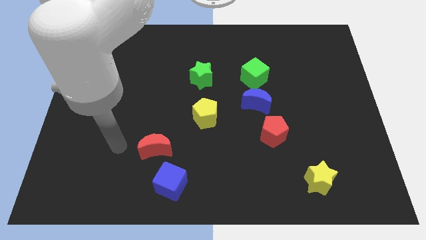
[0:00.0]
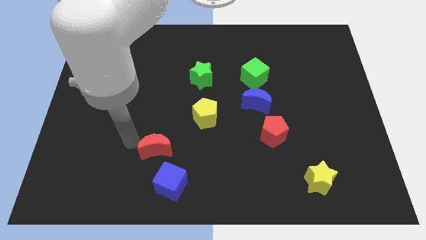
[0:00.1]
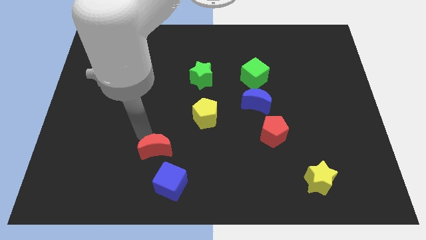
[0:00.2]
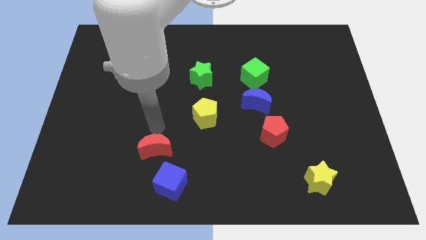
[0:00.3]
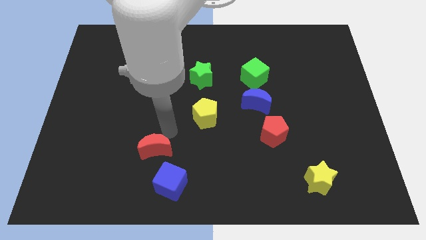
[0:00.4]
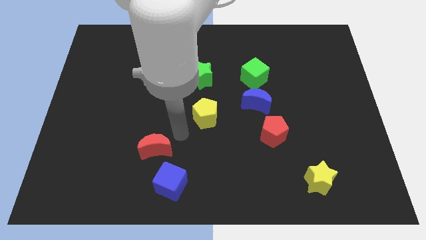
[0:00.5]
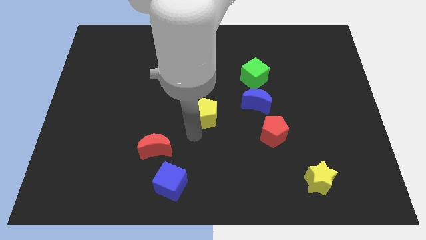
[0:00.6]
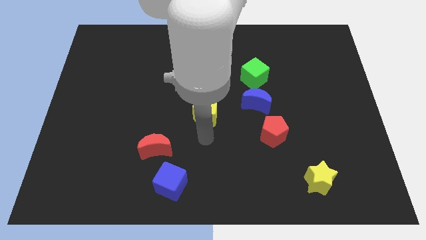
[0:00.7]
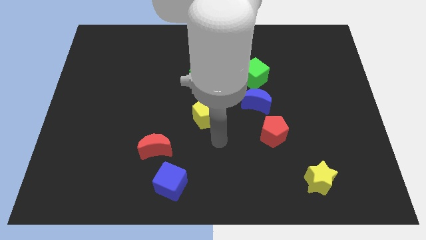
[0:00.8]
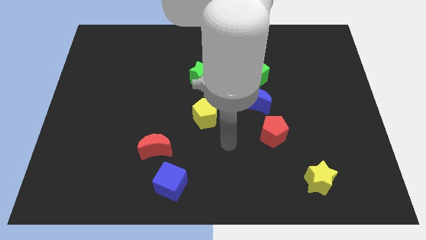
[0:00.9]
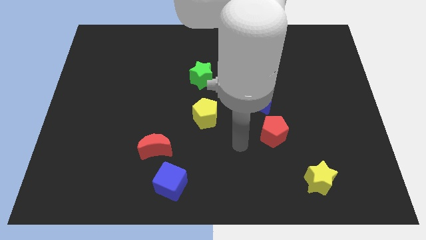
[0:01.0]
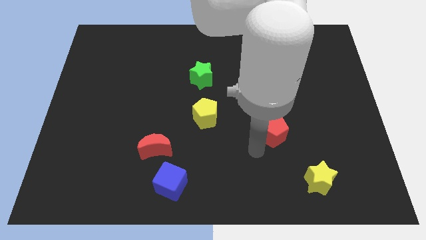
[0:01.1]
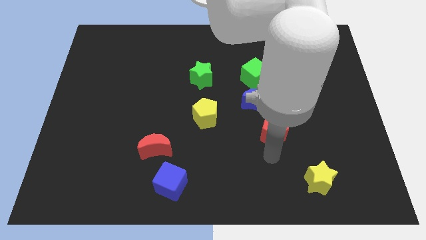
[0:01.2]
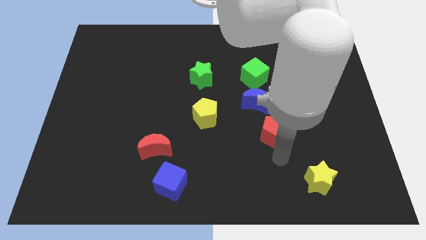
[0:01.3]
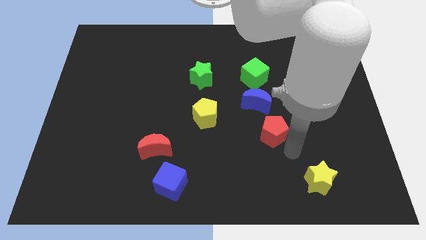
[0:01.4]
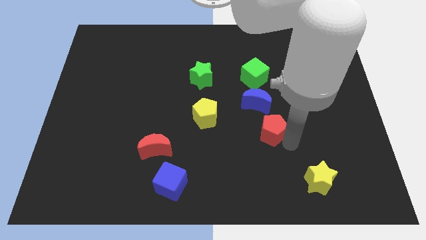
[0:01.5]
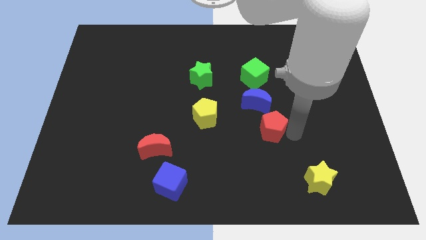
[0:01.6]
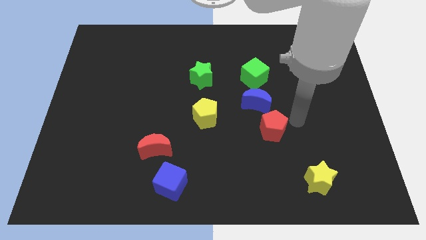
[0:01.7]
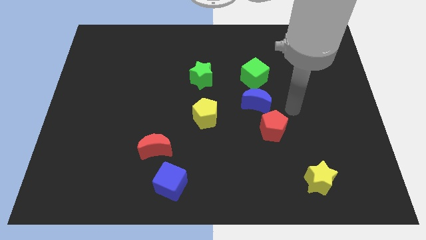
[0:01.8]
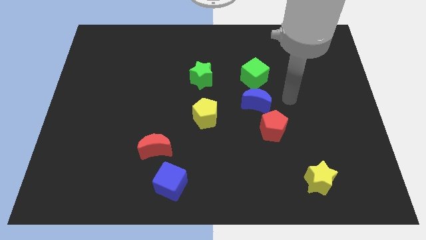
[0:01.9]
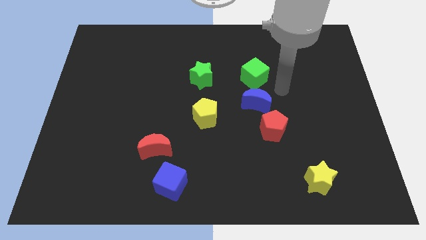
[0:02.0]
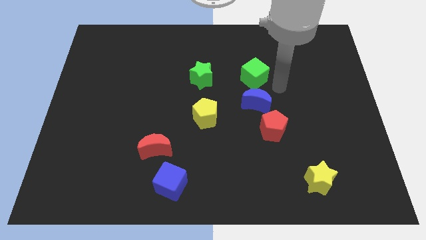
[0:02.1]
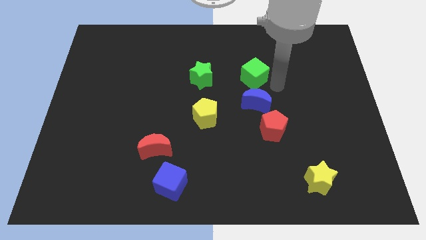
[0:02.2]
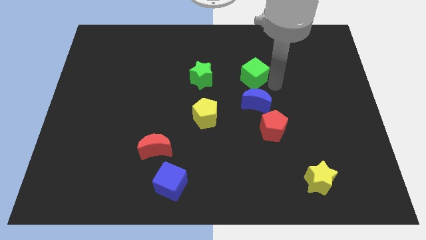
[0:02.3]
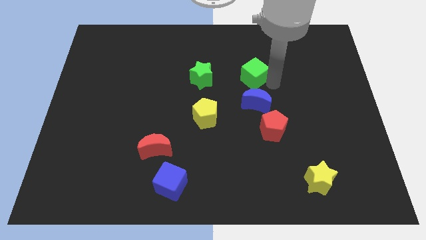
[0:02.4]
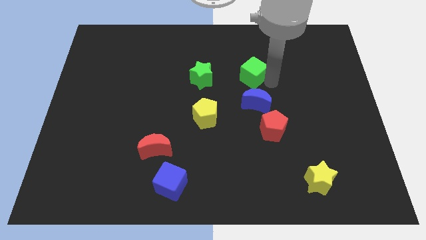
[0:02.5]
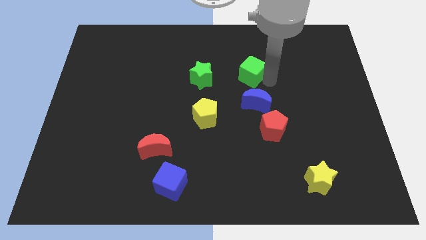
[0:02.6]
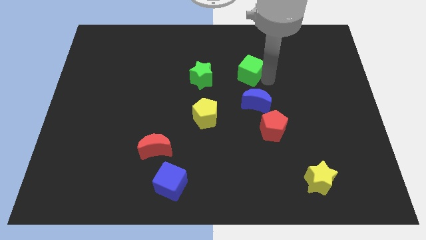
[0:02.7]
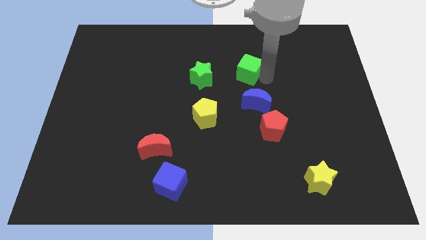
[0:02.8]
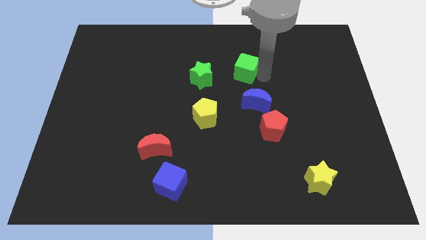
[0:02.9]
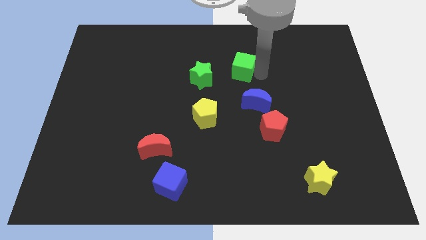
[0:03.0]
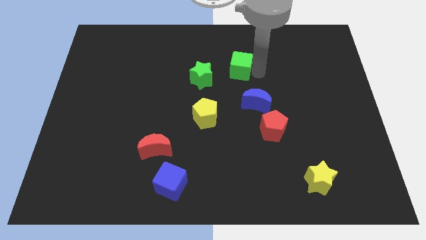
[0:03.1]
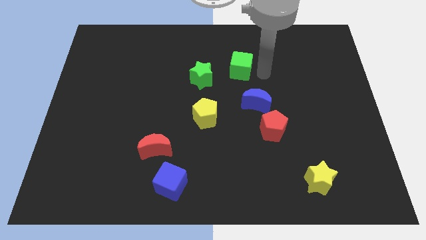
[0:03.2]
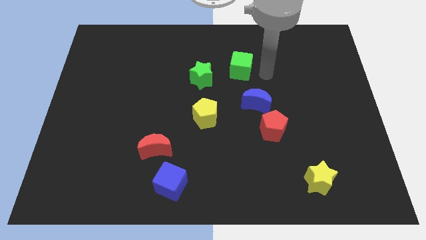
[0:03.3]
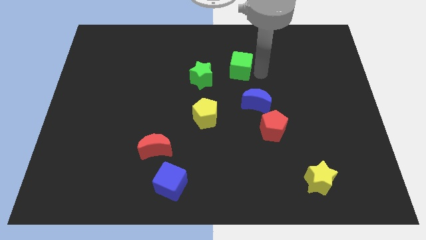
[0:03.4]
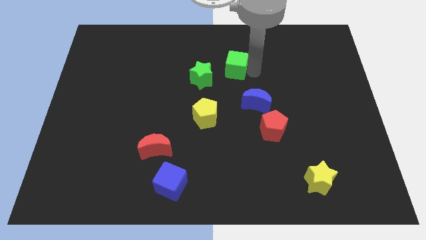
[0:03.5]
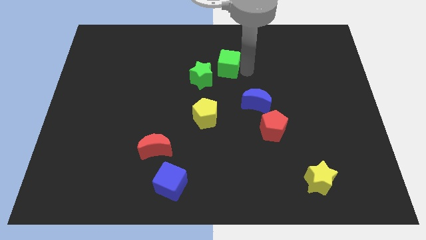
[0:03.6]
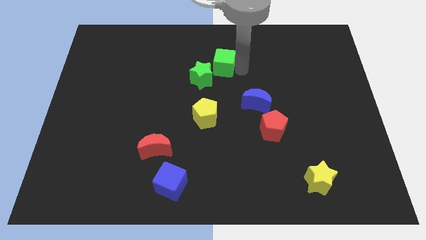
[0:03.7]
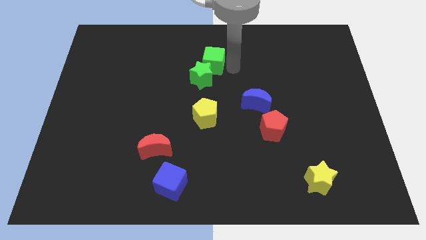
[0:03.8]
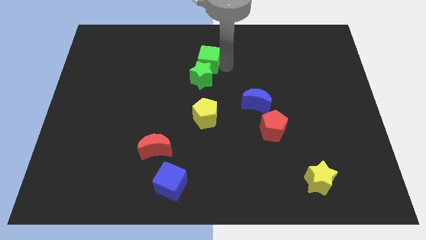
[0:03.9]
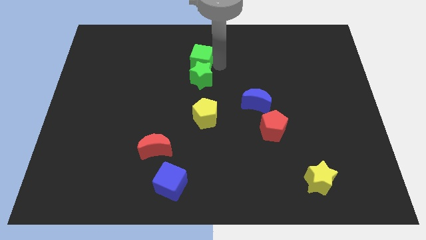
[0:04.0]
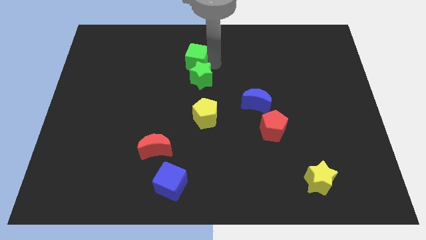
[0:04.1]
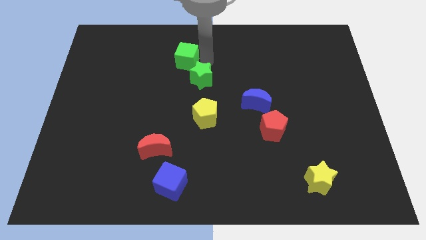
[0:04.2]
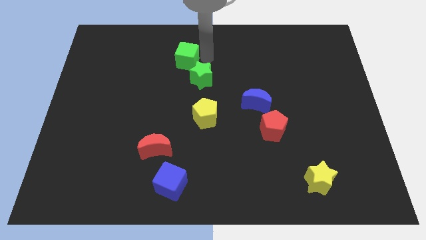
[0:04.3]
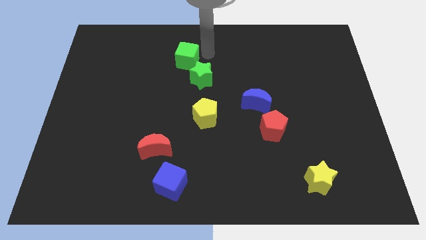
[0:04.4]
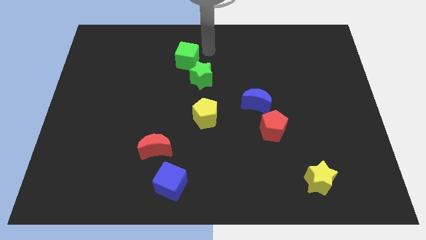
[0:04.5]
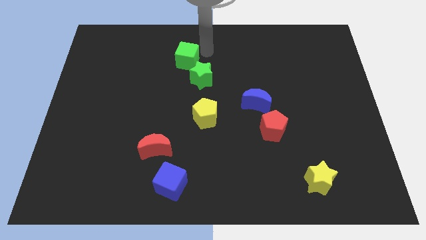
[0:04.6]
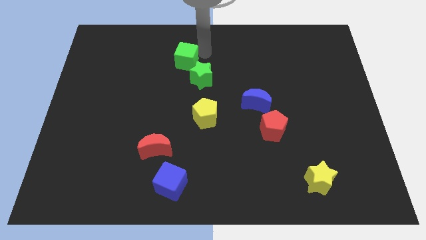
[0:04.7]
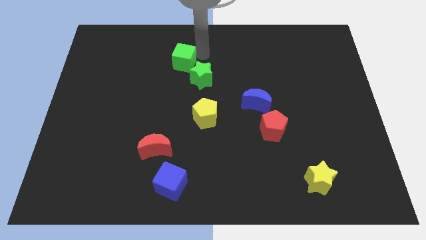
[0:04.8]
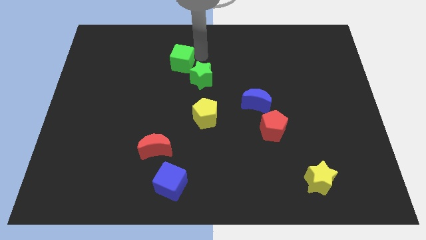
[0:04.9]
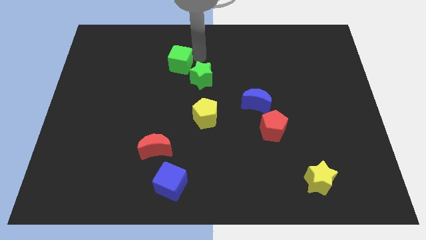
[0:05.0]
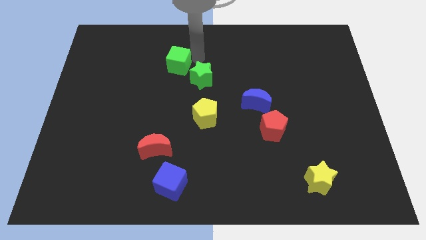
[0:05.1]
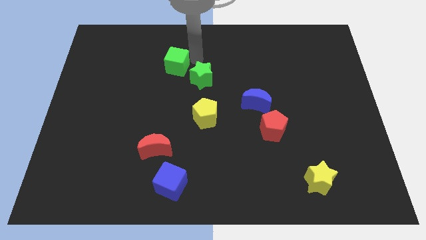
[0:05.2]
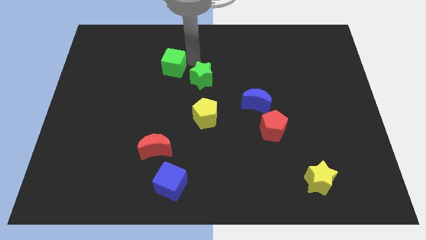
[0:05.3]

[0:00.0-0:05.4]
slide the green cube left

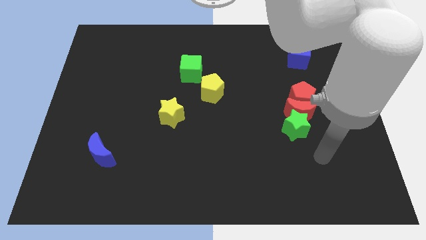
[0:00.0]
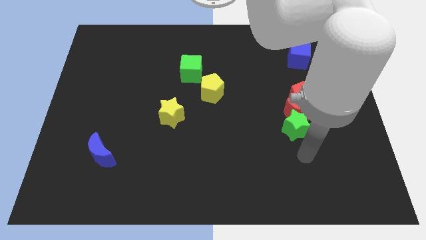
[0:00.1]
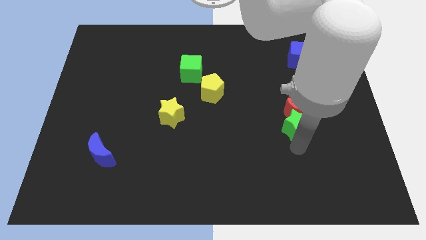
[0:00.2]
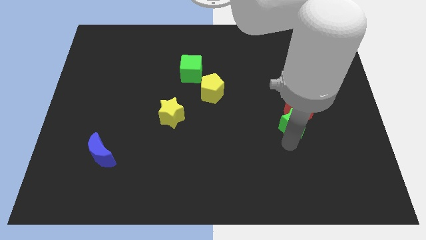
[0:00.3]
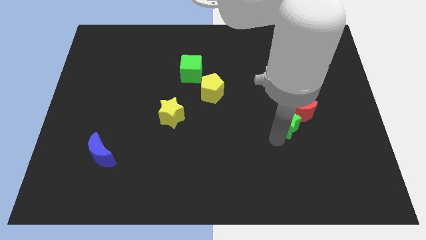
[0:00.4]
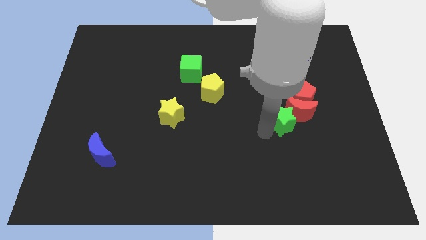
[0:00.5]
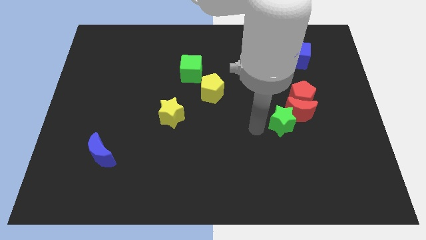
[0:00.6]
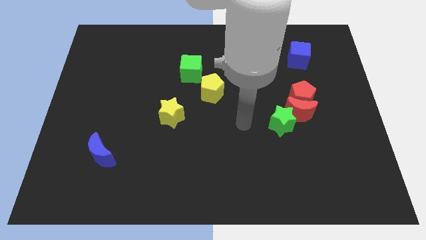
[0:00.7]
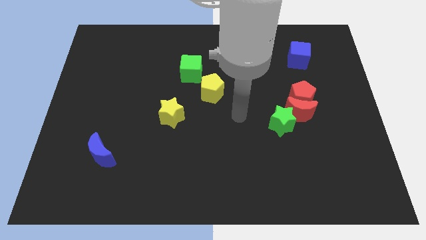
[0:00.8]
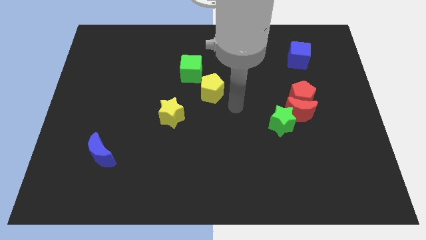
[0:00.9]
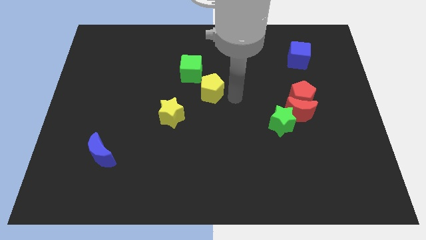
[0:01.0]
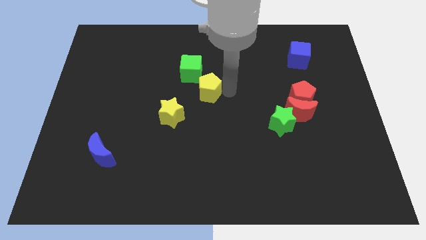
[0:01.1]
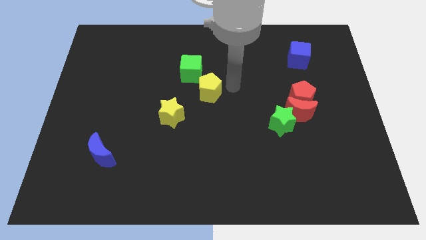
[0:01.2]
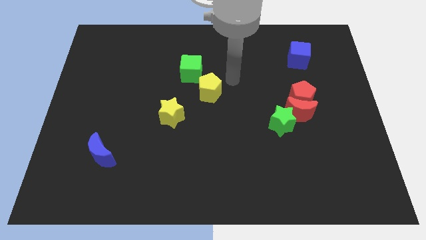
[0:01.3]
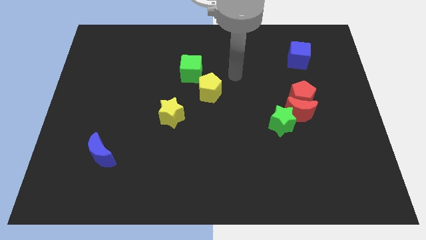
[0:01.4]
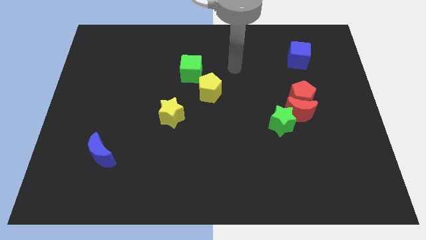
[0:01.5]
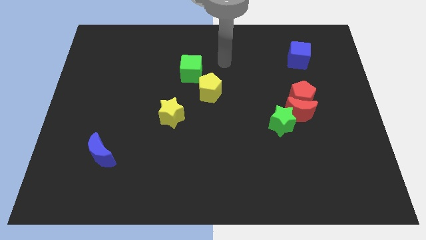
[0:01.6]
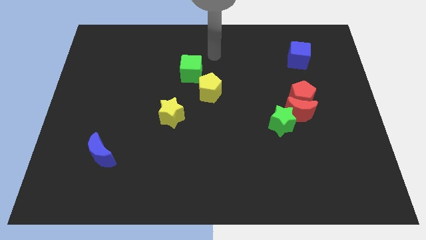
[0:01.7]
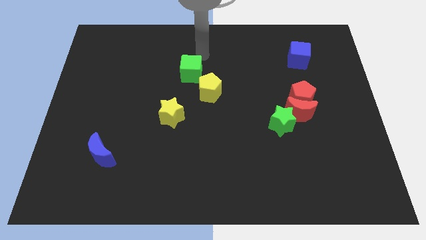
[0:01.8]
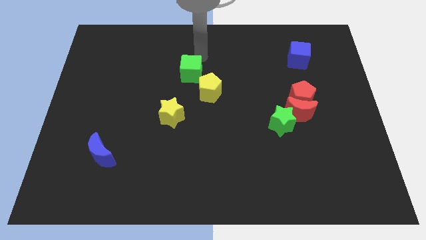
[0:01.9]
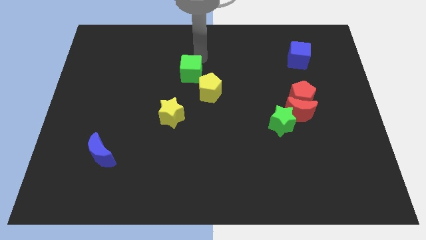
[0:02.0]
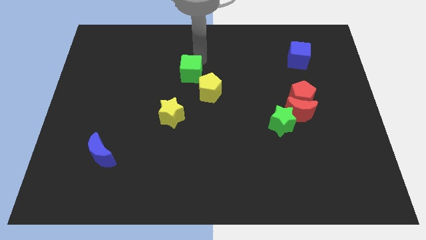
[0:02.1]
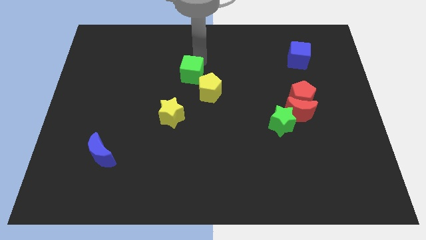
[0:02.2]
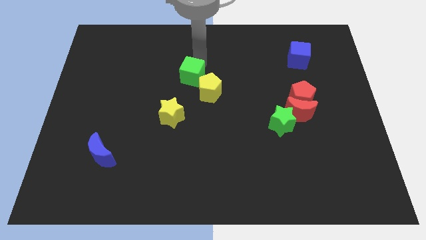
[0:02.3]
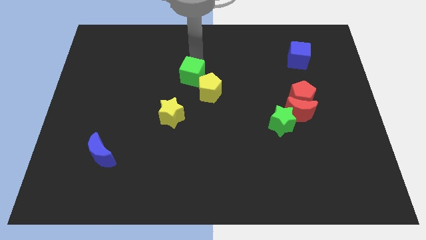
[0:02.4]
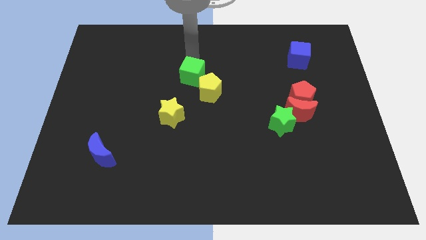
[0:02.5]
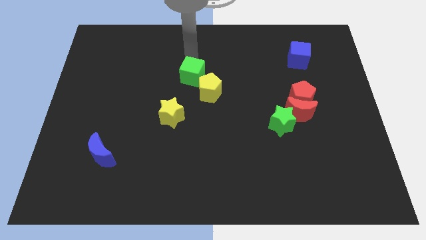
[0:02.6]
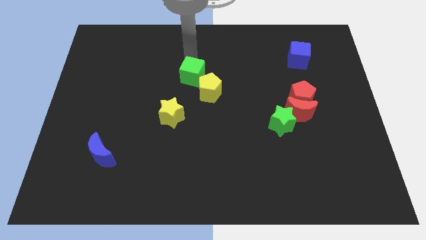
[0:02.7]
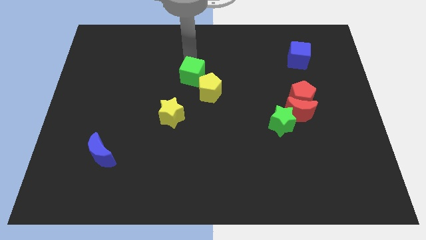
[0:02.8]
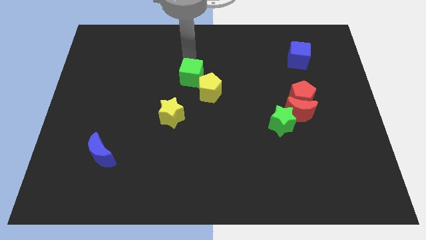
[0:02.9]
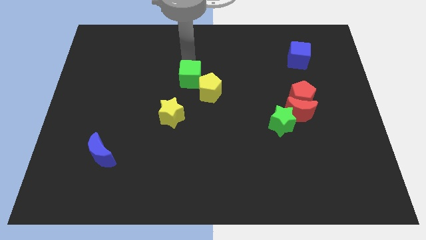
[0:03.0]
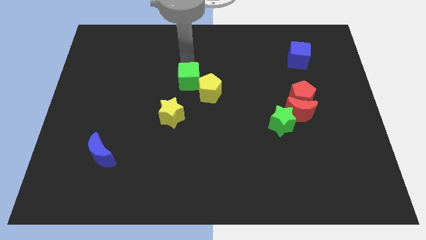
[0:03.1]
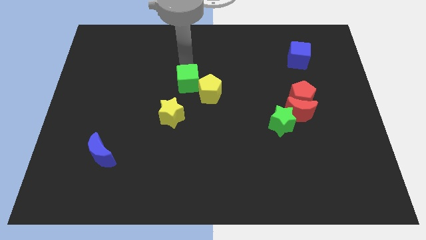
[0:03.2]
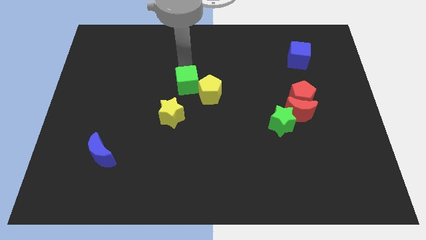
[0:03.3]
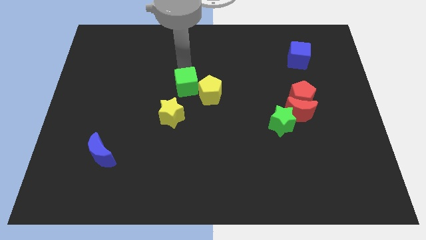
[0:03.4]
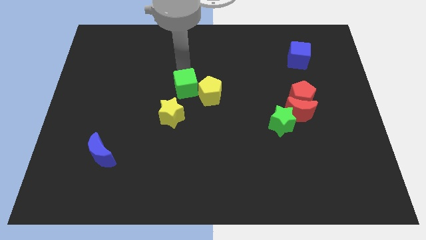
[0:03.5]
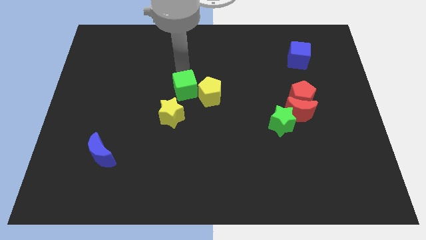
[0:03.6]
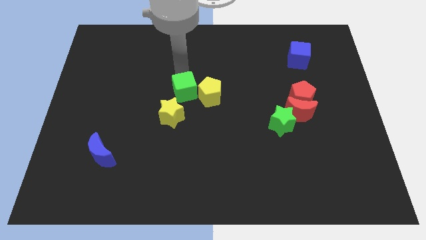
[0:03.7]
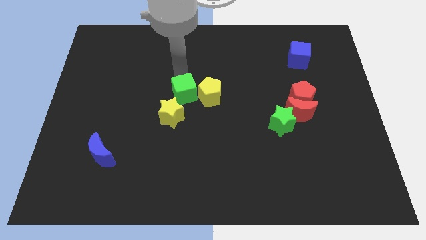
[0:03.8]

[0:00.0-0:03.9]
slightly move the green cube downwards
